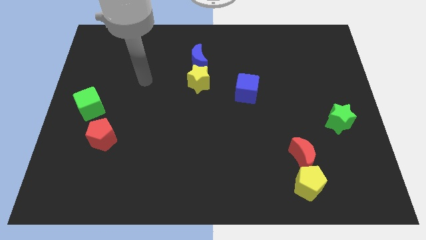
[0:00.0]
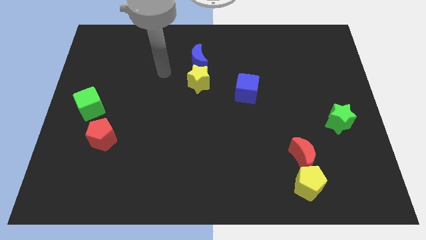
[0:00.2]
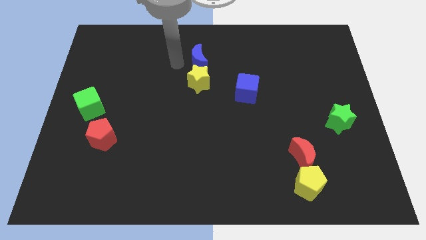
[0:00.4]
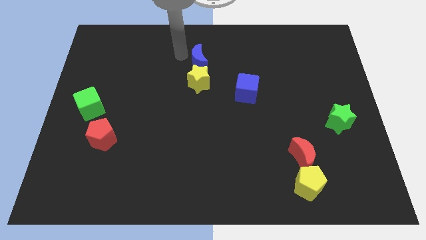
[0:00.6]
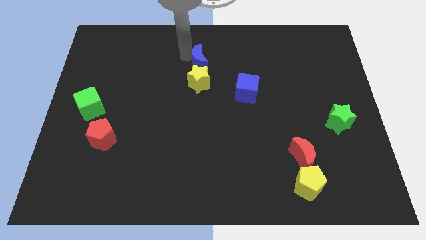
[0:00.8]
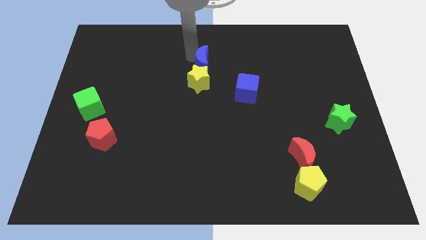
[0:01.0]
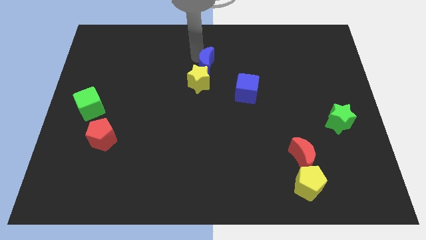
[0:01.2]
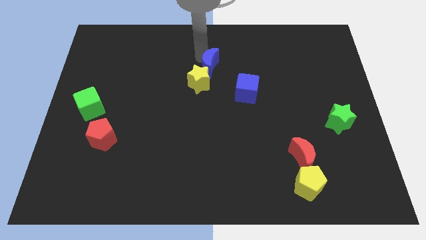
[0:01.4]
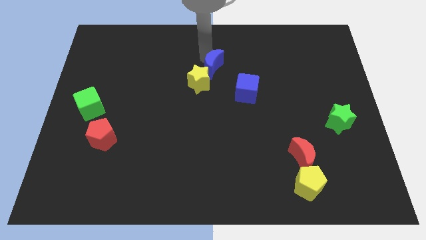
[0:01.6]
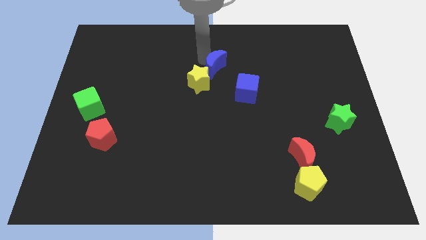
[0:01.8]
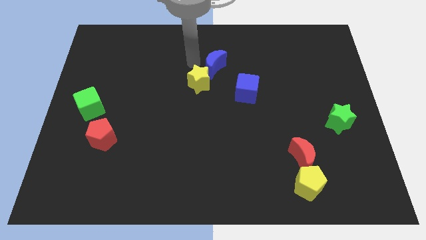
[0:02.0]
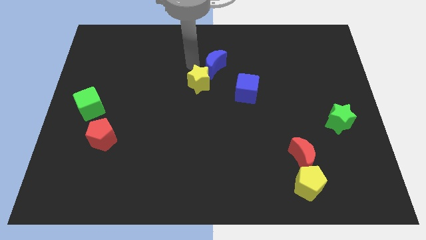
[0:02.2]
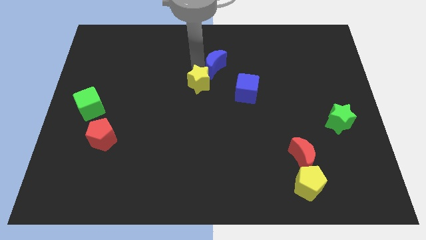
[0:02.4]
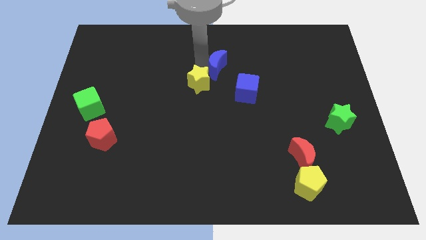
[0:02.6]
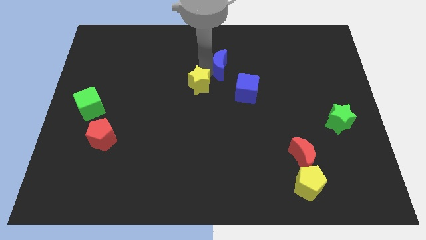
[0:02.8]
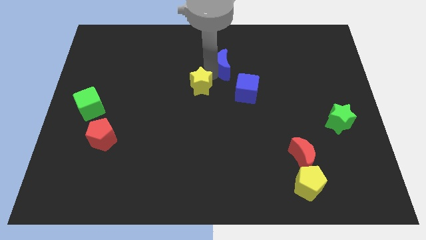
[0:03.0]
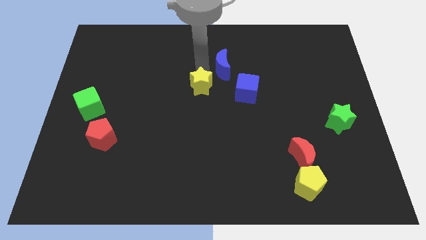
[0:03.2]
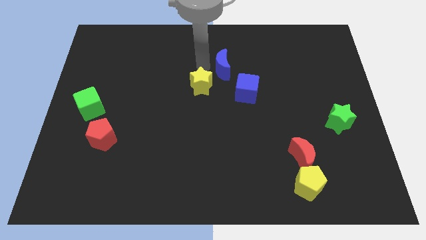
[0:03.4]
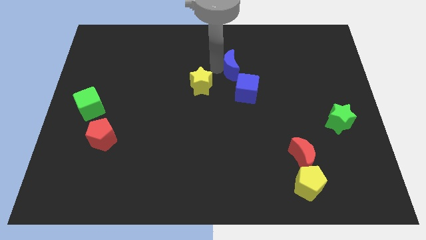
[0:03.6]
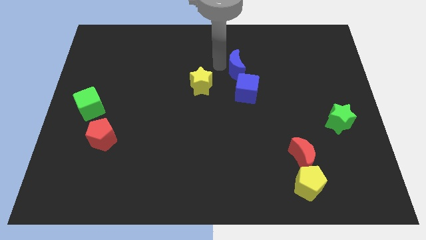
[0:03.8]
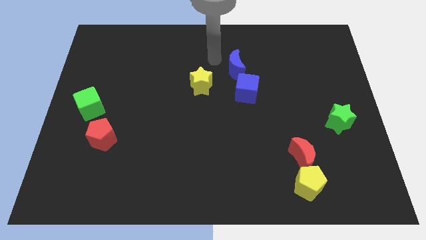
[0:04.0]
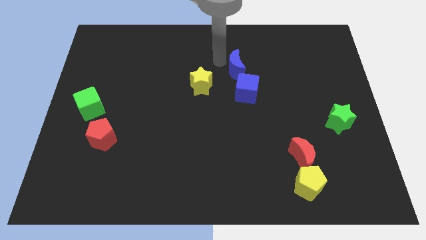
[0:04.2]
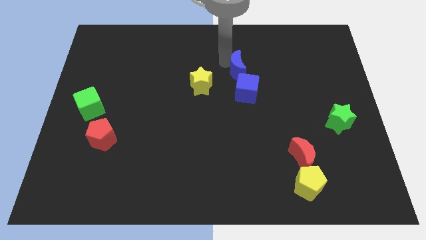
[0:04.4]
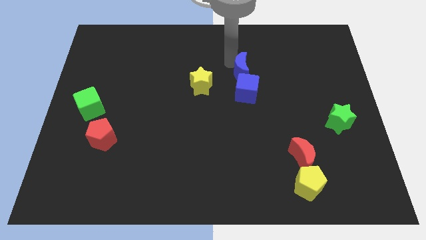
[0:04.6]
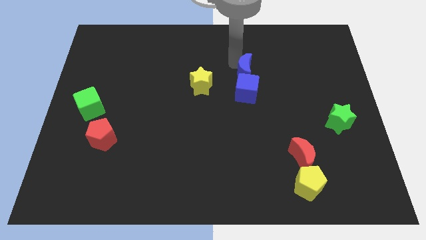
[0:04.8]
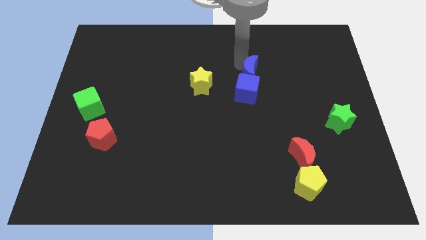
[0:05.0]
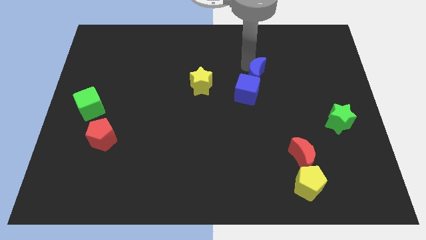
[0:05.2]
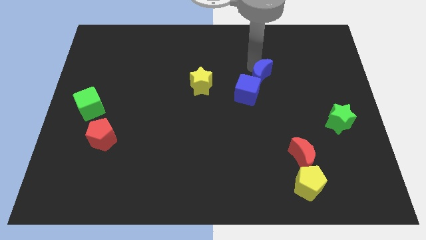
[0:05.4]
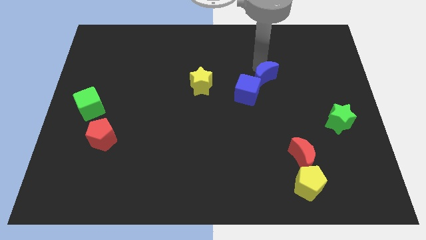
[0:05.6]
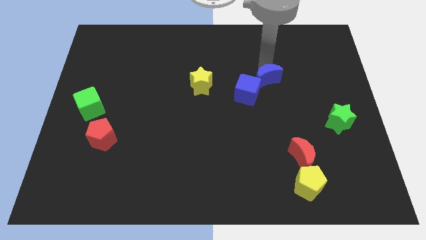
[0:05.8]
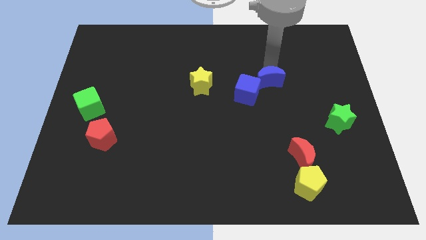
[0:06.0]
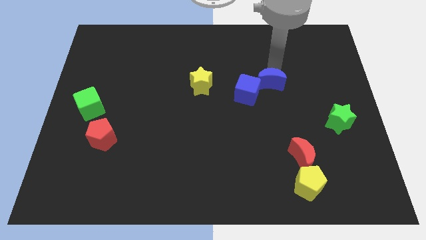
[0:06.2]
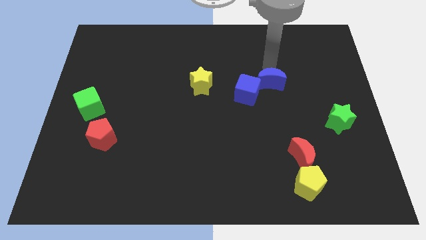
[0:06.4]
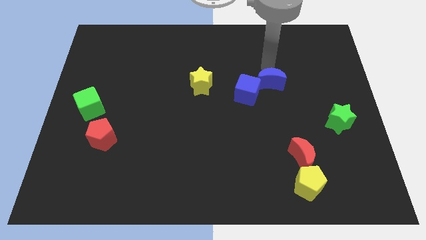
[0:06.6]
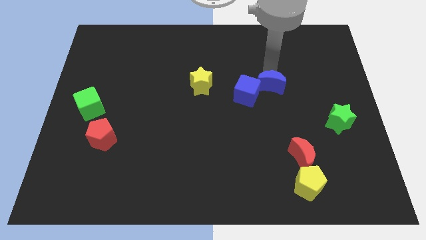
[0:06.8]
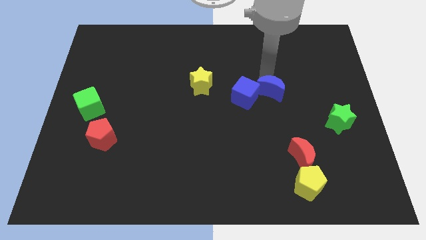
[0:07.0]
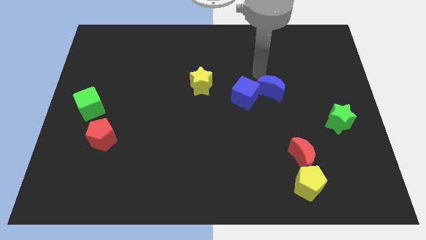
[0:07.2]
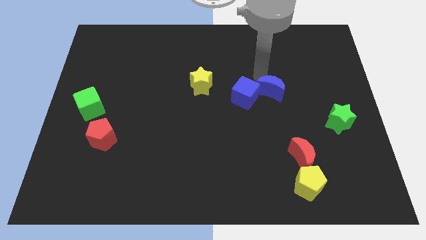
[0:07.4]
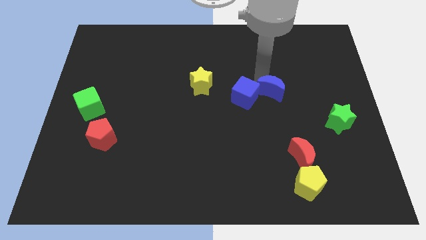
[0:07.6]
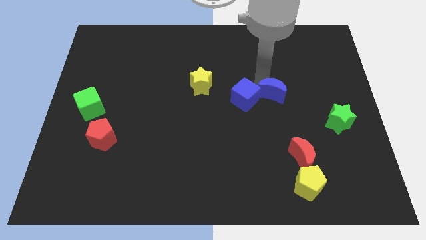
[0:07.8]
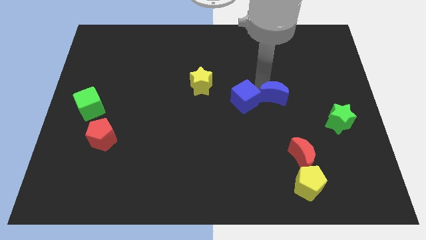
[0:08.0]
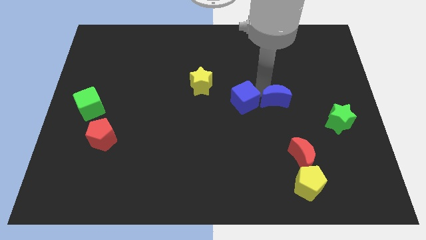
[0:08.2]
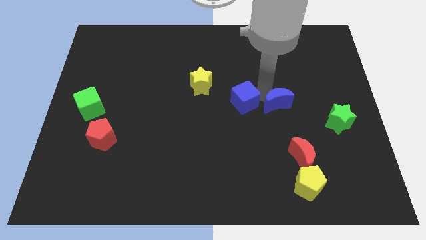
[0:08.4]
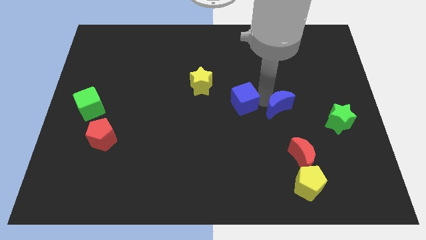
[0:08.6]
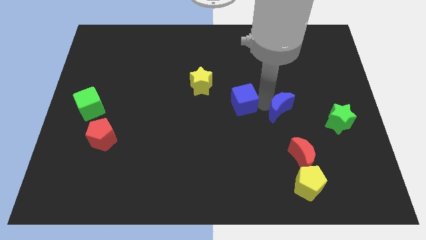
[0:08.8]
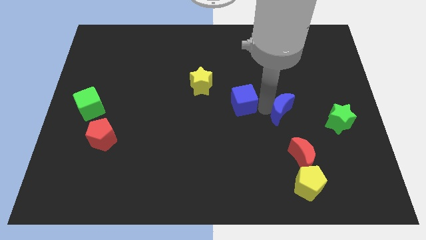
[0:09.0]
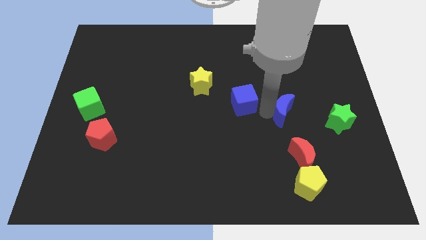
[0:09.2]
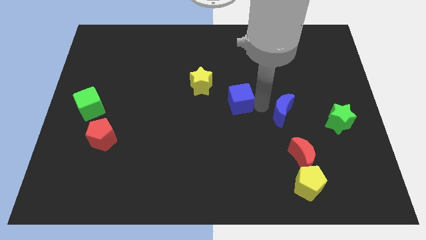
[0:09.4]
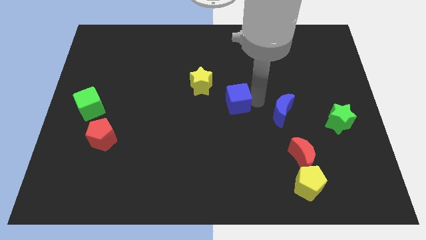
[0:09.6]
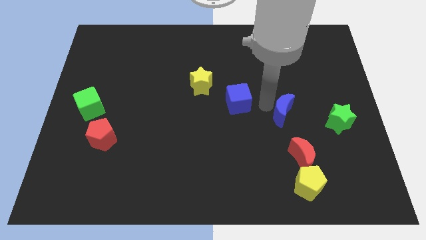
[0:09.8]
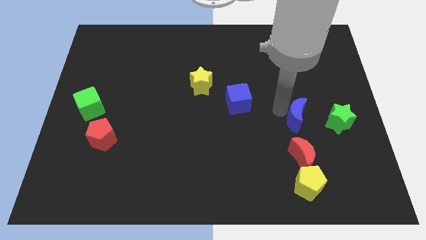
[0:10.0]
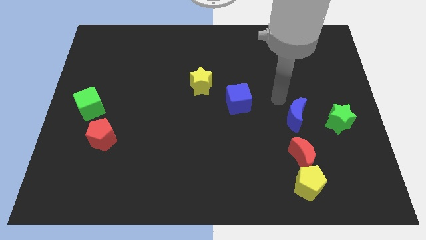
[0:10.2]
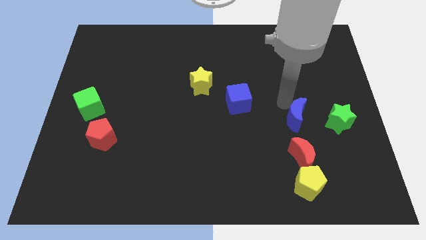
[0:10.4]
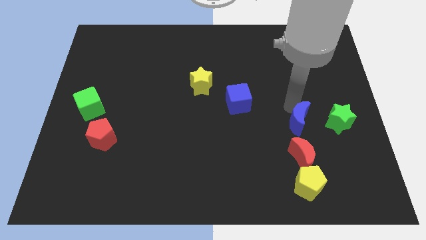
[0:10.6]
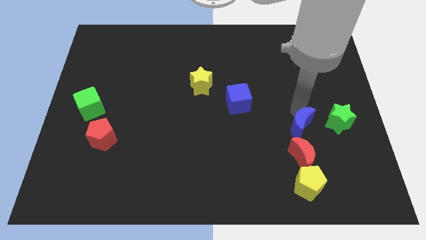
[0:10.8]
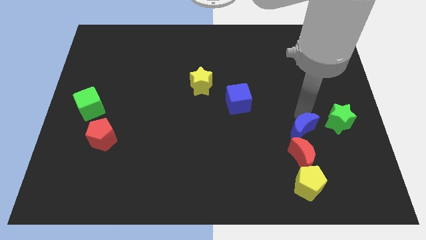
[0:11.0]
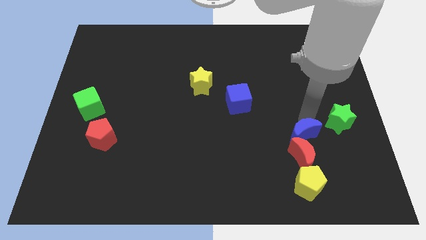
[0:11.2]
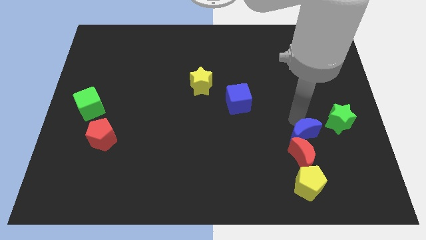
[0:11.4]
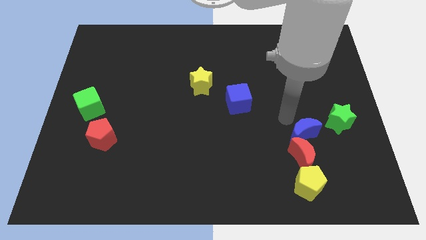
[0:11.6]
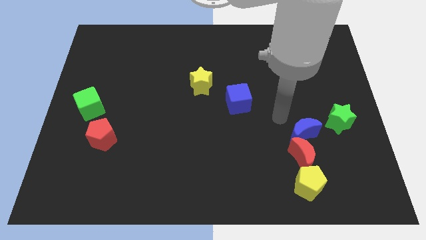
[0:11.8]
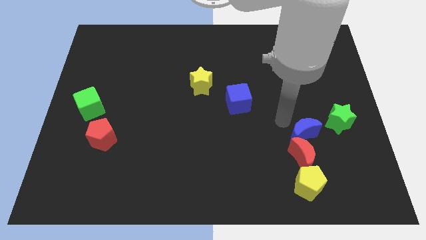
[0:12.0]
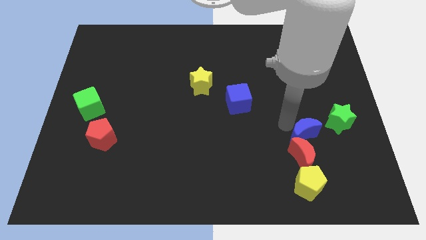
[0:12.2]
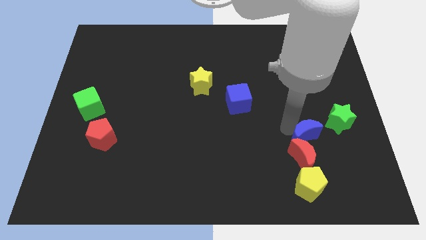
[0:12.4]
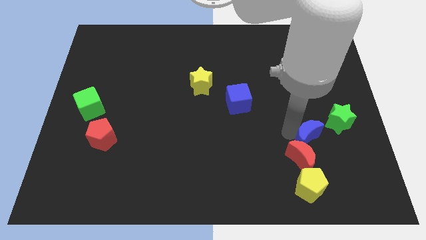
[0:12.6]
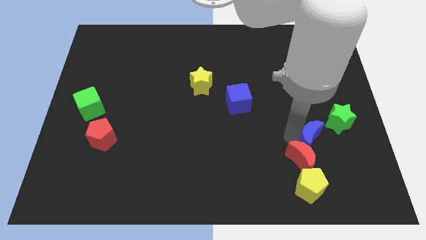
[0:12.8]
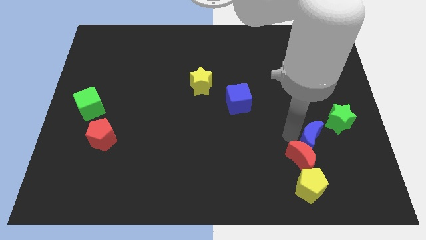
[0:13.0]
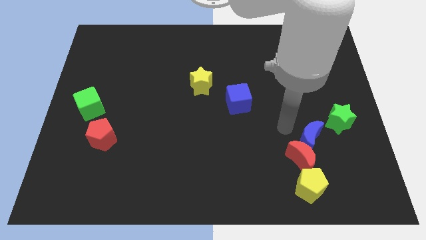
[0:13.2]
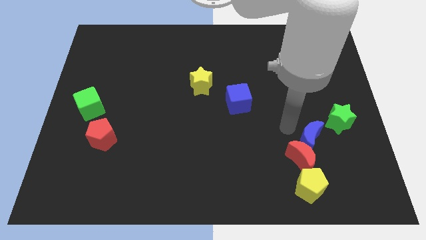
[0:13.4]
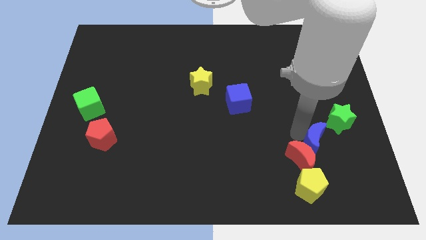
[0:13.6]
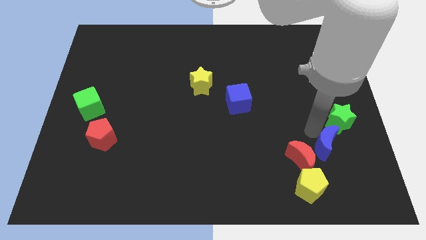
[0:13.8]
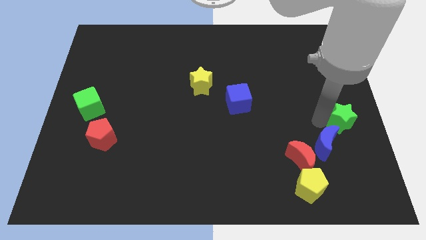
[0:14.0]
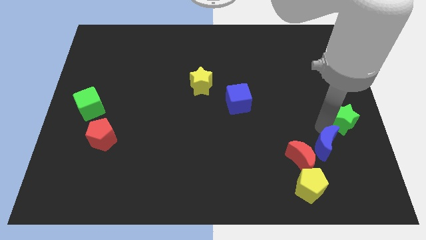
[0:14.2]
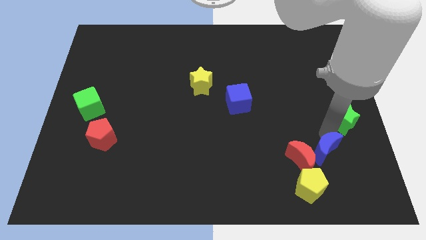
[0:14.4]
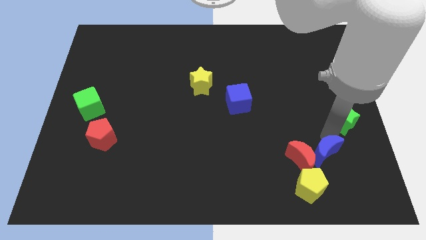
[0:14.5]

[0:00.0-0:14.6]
push the blue moon diagonally down and to the right of the red moon
